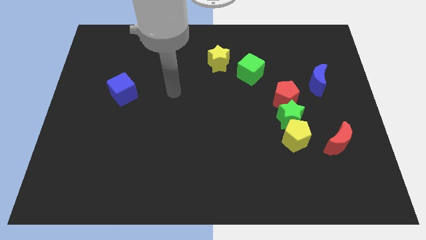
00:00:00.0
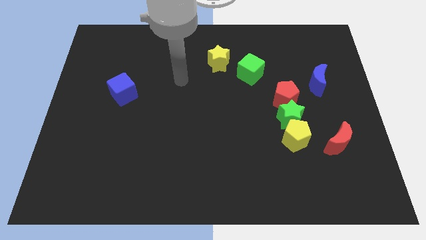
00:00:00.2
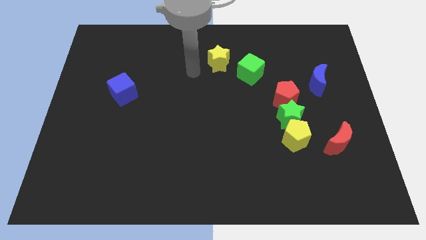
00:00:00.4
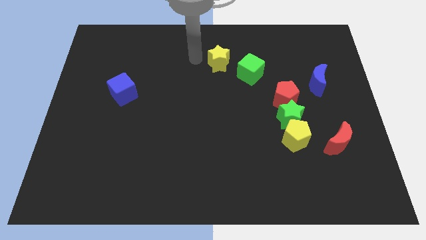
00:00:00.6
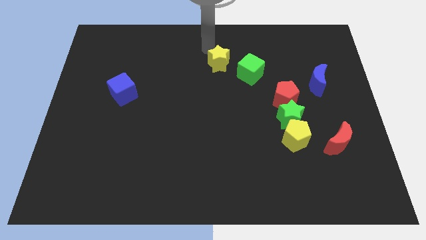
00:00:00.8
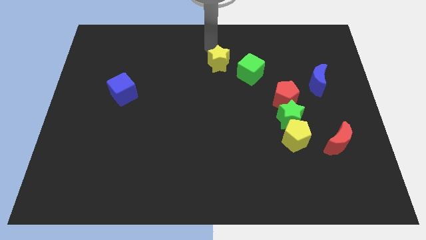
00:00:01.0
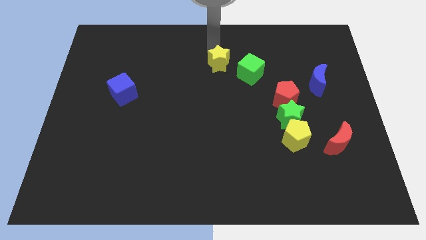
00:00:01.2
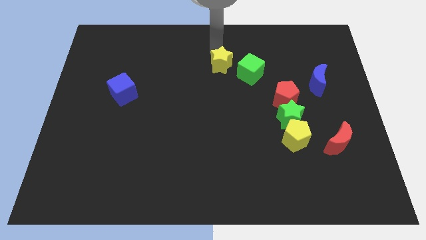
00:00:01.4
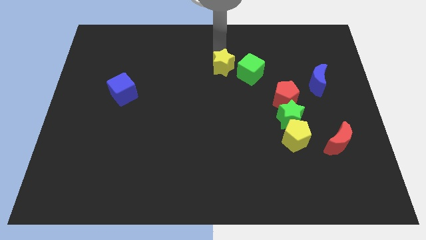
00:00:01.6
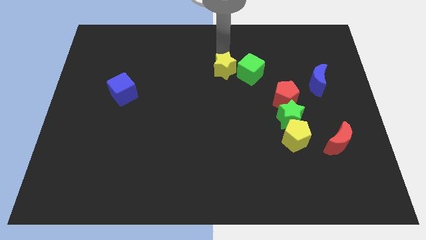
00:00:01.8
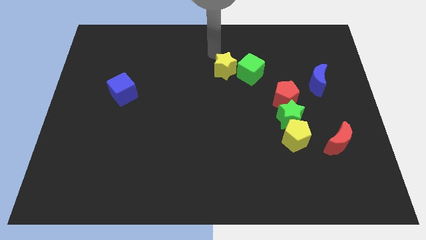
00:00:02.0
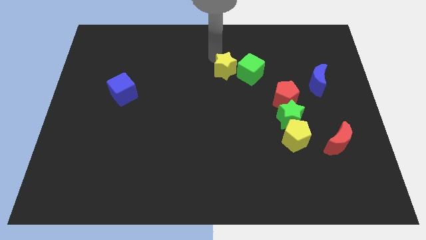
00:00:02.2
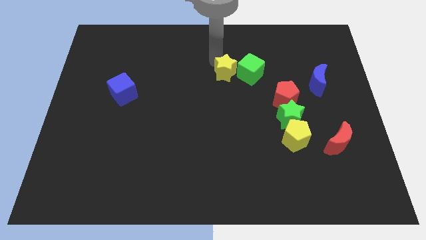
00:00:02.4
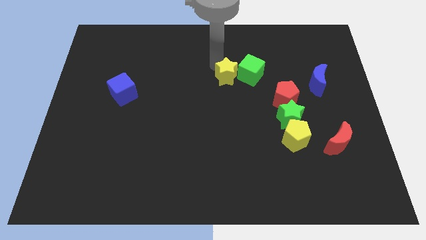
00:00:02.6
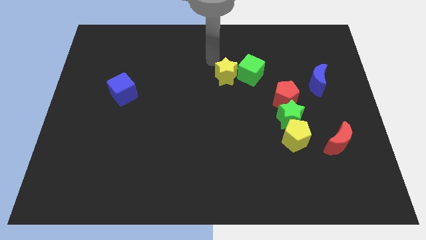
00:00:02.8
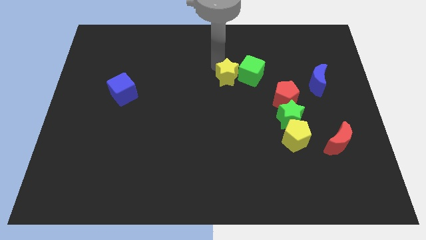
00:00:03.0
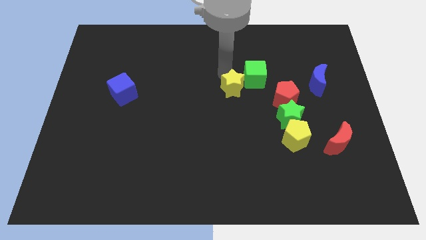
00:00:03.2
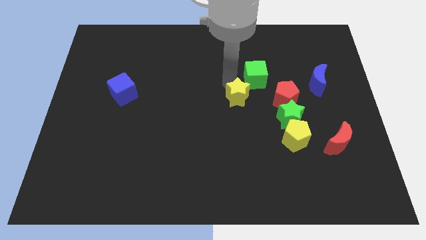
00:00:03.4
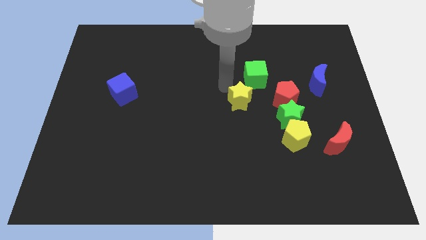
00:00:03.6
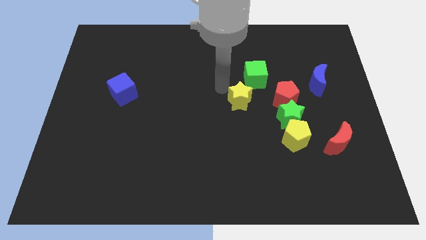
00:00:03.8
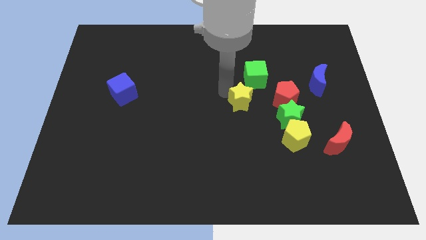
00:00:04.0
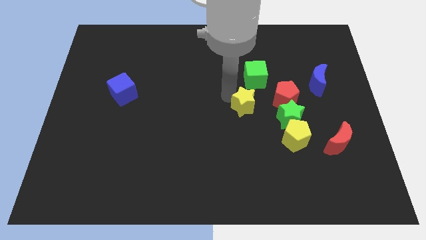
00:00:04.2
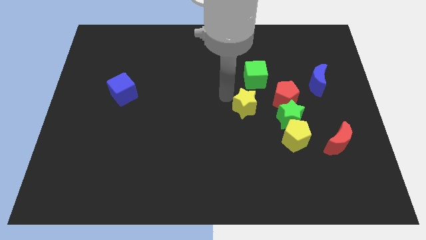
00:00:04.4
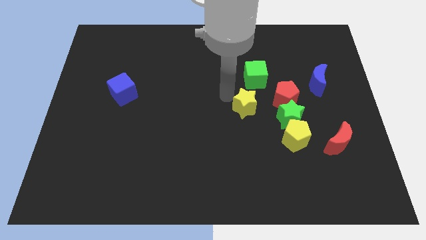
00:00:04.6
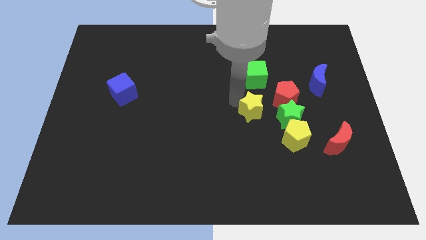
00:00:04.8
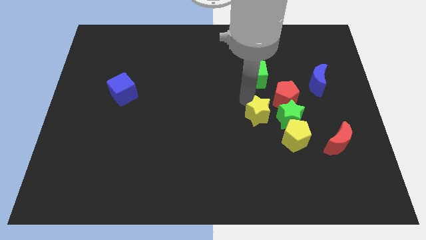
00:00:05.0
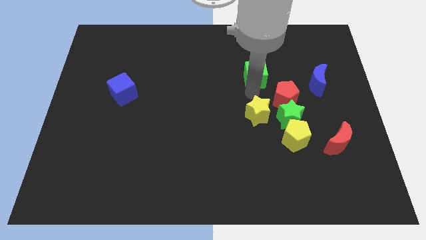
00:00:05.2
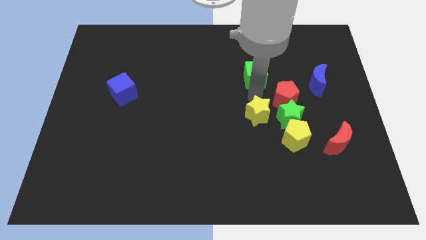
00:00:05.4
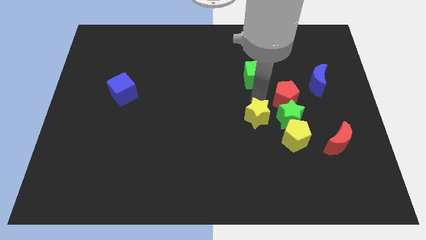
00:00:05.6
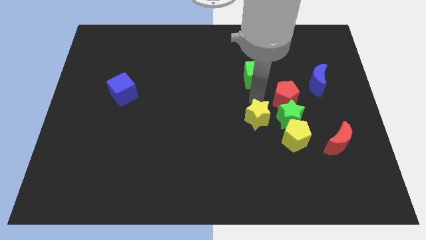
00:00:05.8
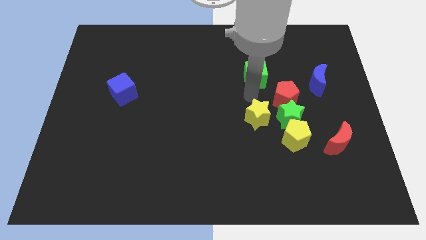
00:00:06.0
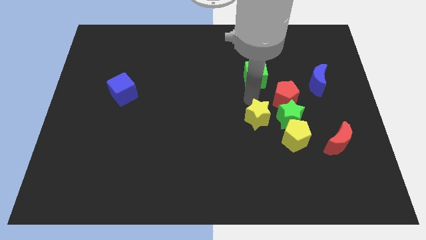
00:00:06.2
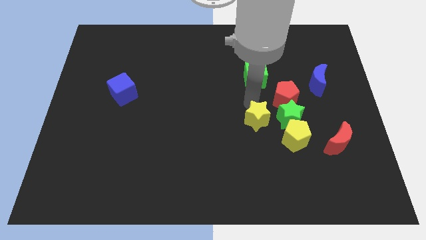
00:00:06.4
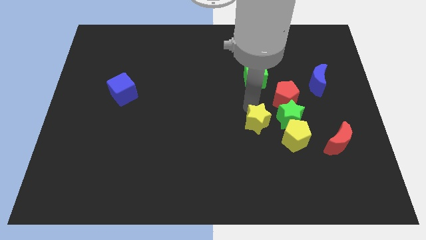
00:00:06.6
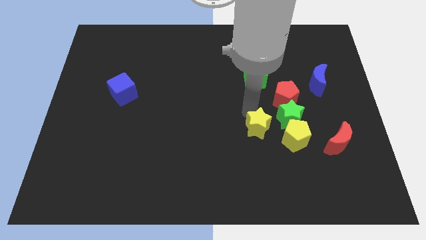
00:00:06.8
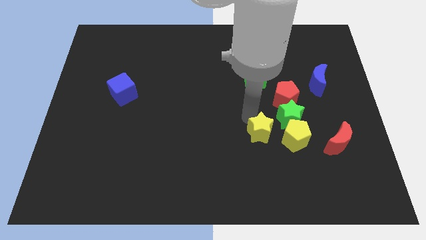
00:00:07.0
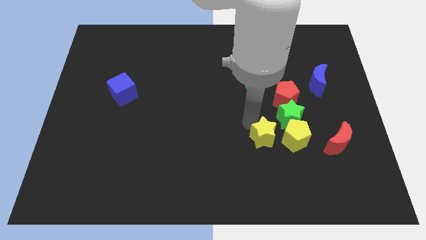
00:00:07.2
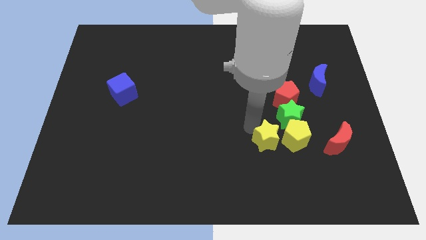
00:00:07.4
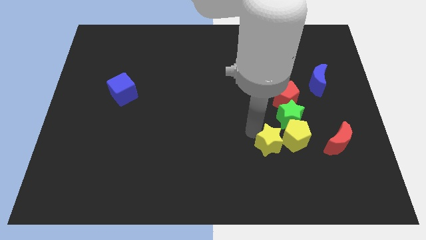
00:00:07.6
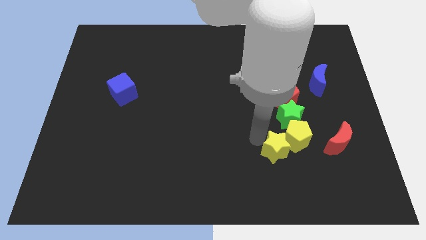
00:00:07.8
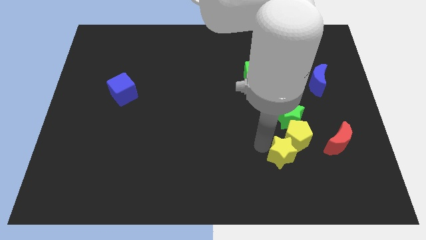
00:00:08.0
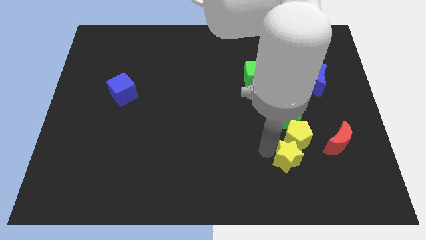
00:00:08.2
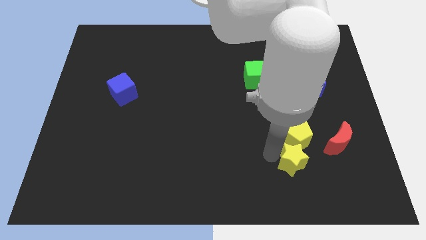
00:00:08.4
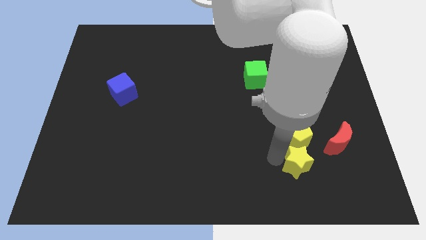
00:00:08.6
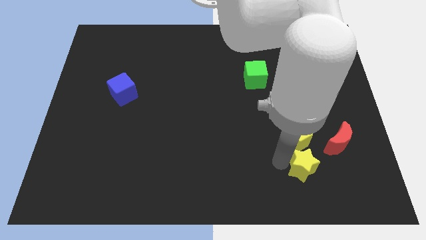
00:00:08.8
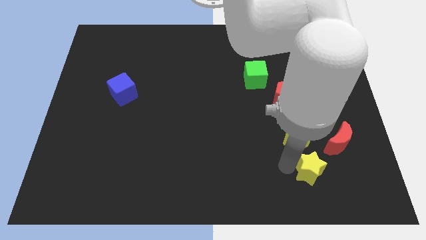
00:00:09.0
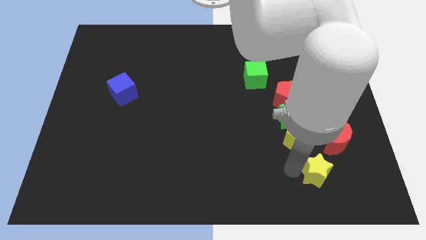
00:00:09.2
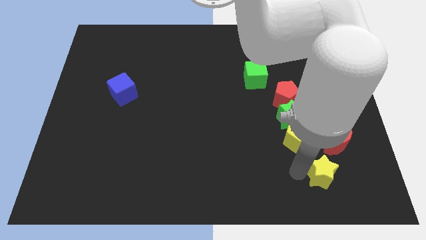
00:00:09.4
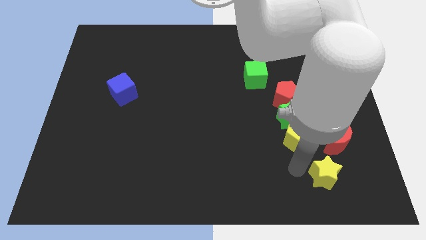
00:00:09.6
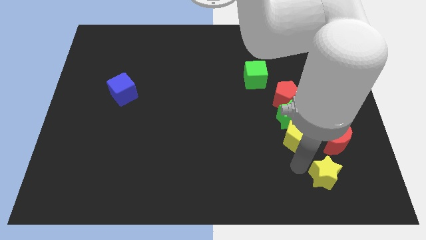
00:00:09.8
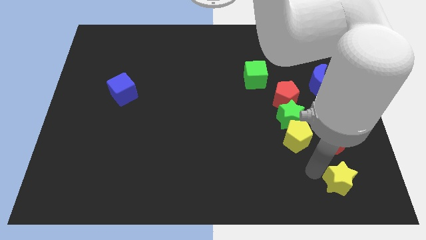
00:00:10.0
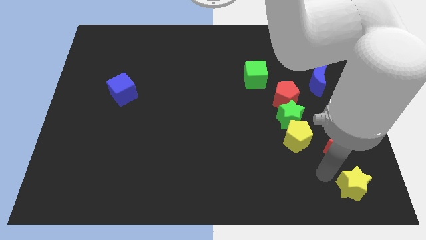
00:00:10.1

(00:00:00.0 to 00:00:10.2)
slide the yellow star to the bottom right of the board

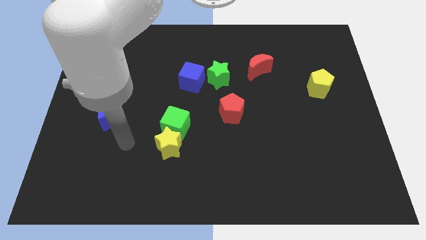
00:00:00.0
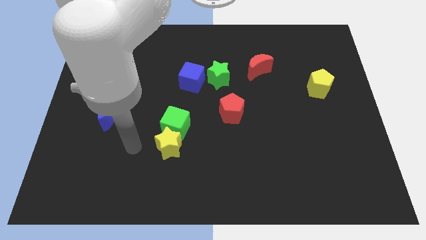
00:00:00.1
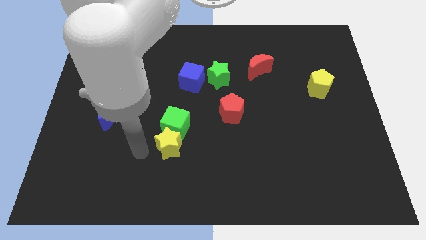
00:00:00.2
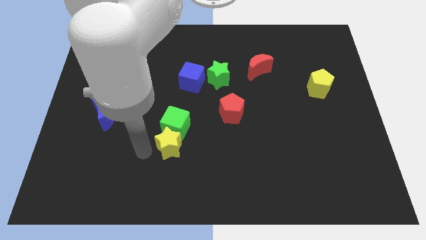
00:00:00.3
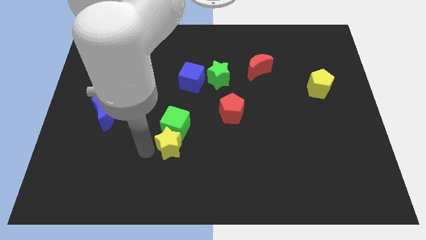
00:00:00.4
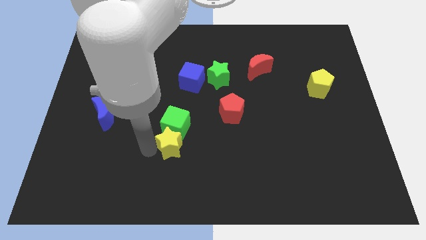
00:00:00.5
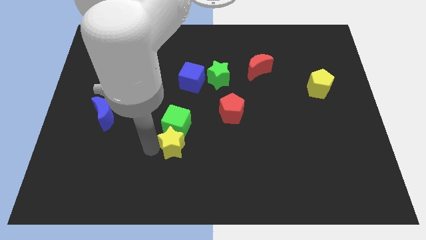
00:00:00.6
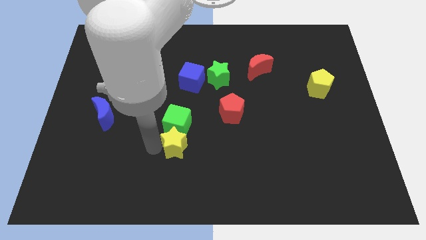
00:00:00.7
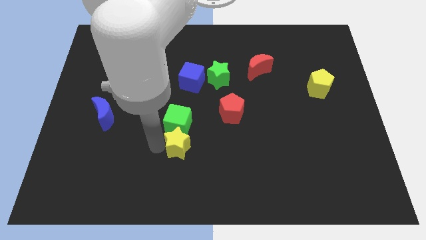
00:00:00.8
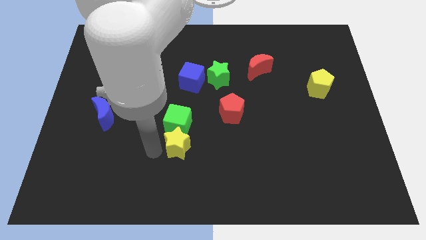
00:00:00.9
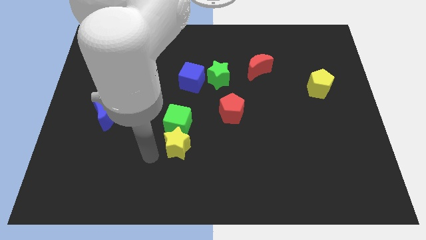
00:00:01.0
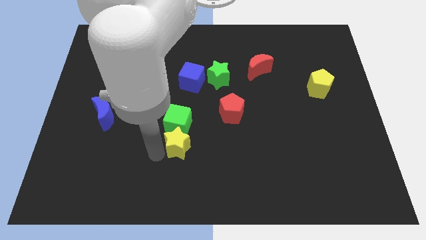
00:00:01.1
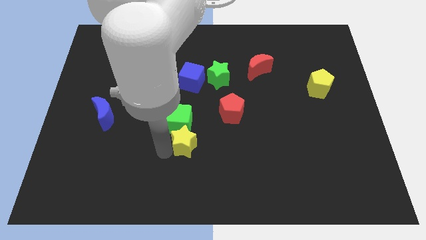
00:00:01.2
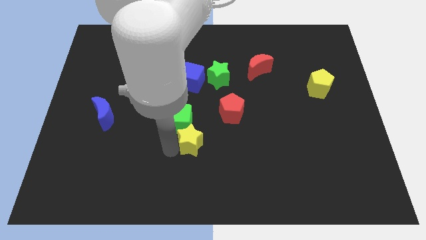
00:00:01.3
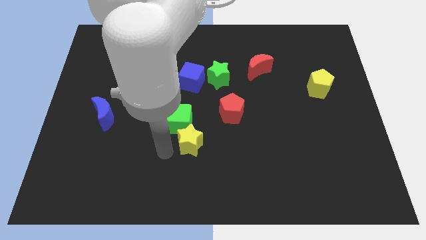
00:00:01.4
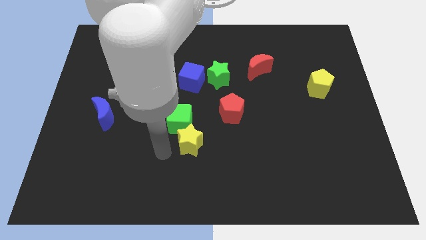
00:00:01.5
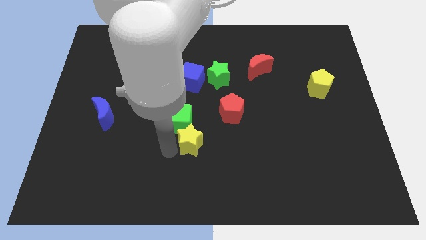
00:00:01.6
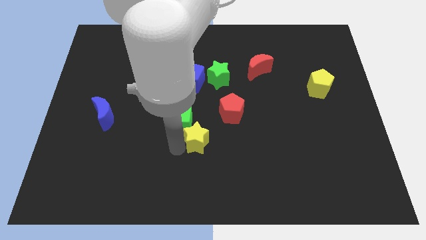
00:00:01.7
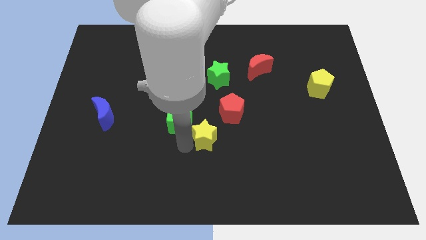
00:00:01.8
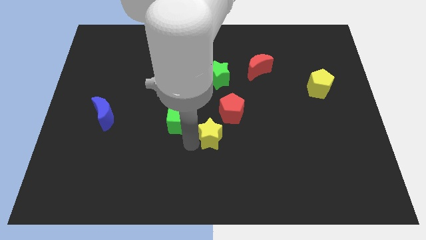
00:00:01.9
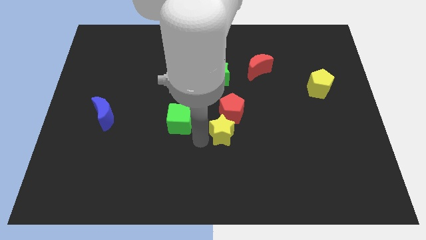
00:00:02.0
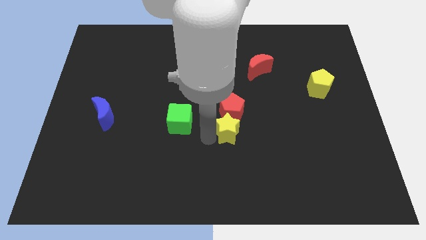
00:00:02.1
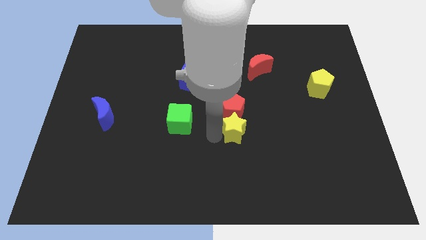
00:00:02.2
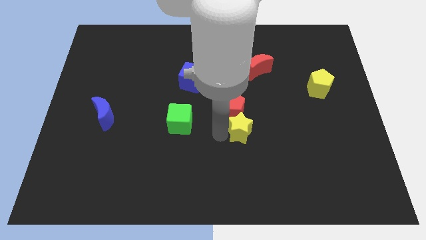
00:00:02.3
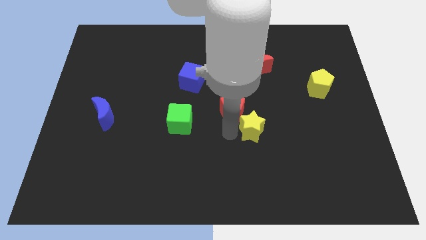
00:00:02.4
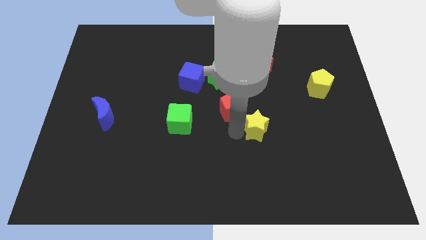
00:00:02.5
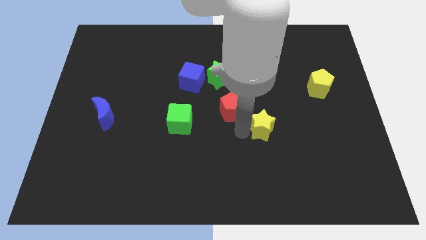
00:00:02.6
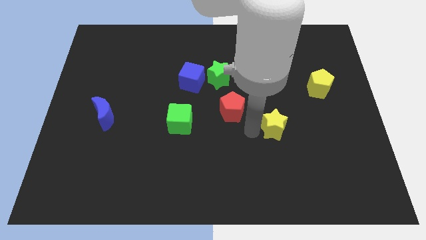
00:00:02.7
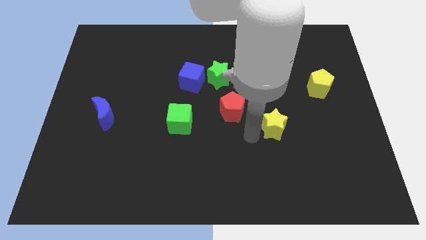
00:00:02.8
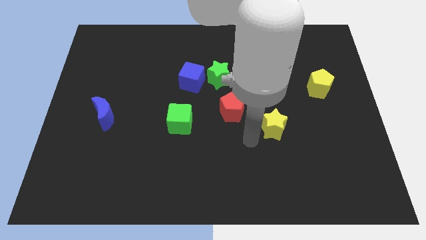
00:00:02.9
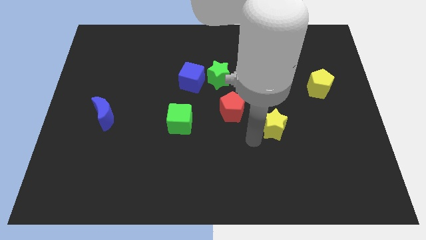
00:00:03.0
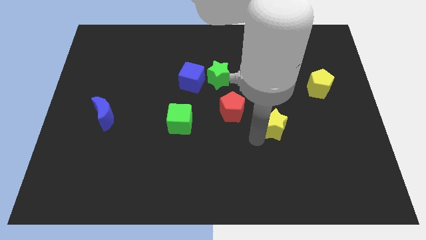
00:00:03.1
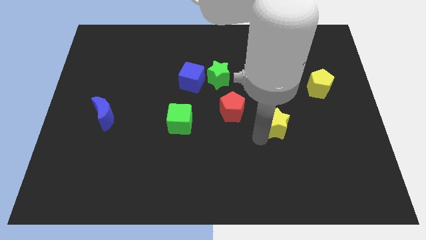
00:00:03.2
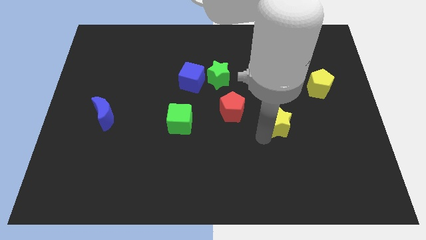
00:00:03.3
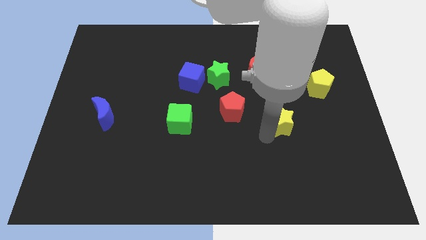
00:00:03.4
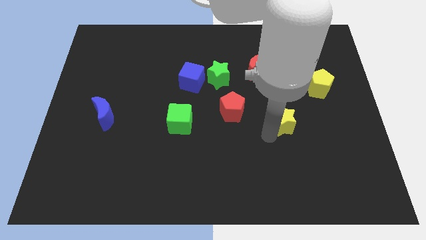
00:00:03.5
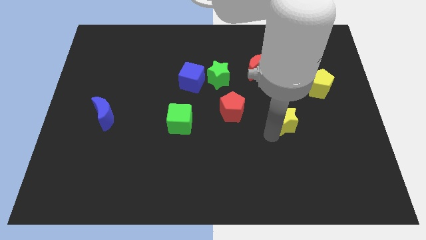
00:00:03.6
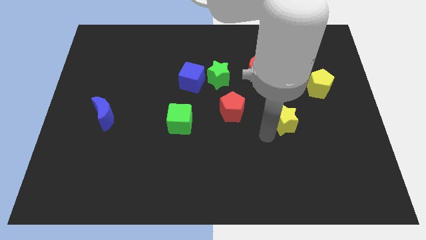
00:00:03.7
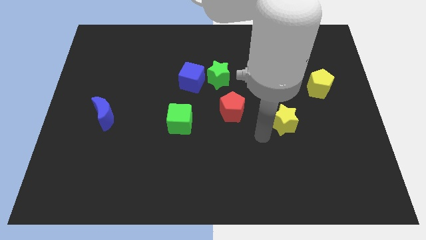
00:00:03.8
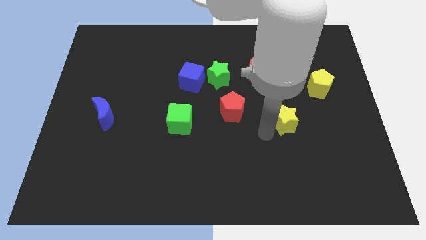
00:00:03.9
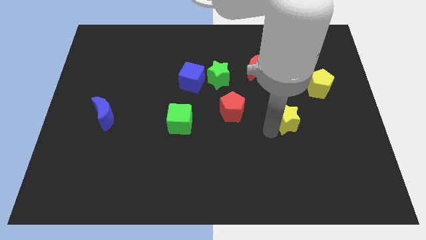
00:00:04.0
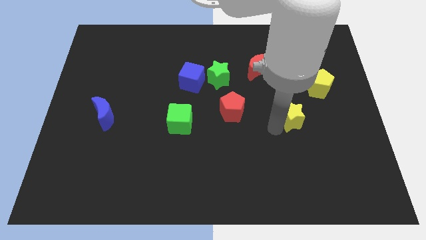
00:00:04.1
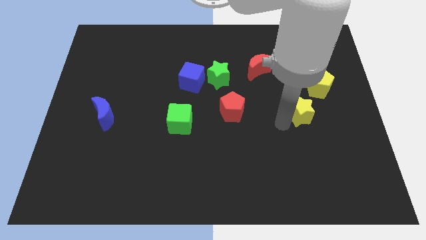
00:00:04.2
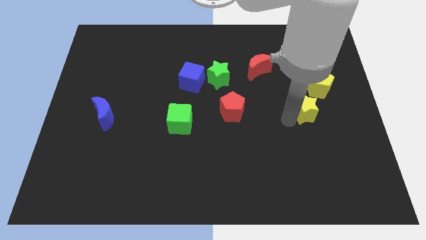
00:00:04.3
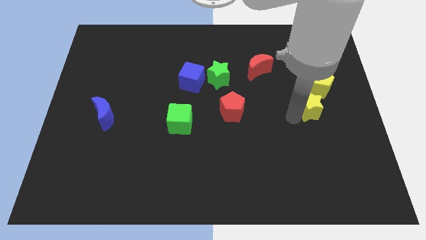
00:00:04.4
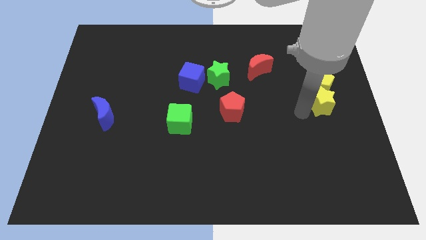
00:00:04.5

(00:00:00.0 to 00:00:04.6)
slide the yellow star to the right side of the board
